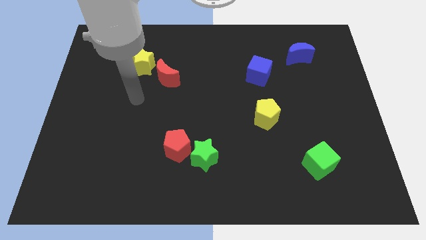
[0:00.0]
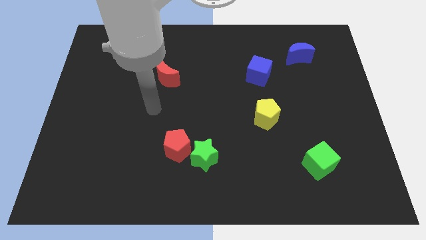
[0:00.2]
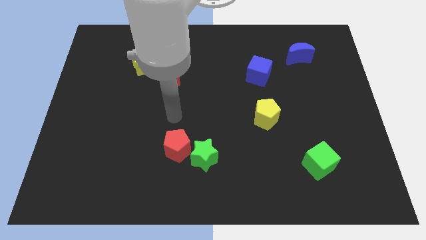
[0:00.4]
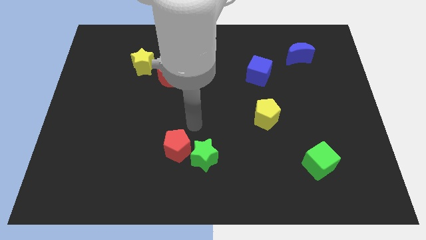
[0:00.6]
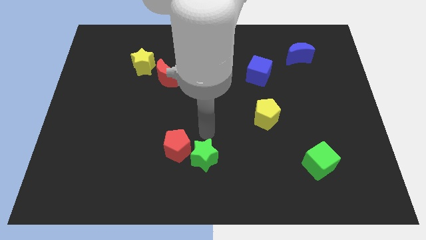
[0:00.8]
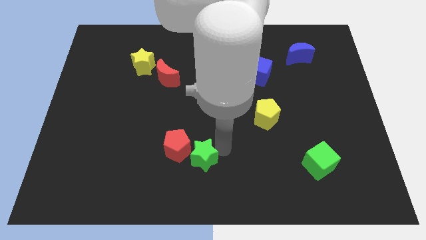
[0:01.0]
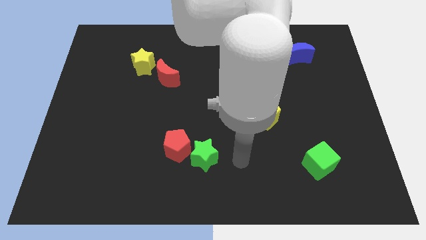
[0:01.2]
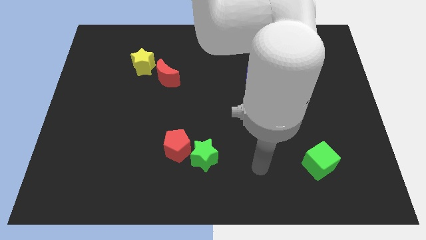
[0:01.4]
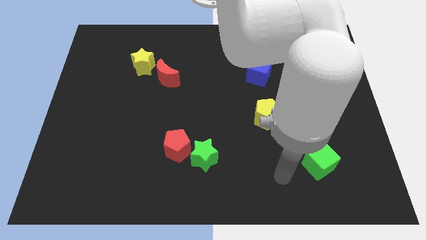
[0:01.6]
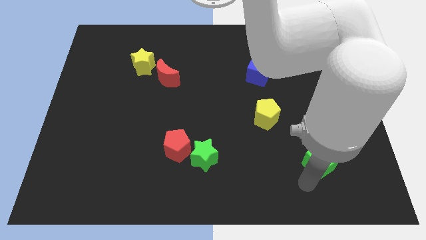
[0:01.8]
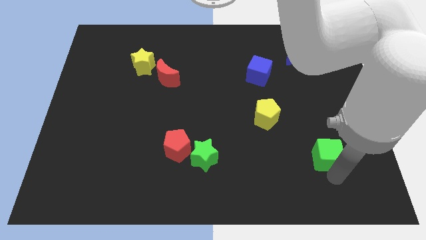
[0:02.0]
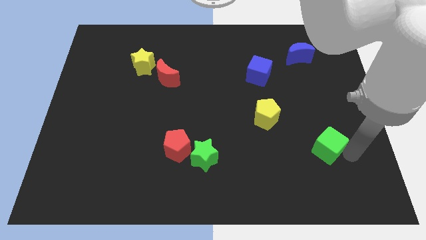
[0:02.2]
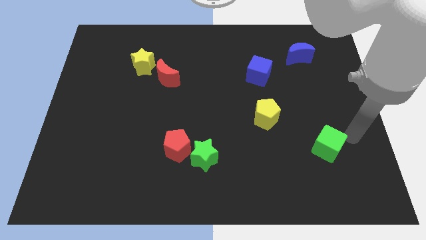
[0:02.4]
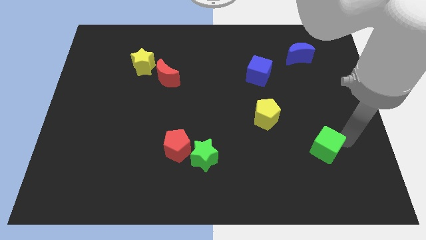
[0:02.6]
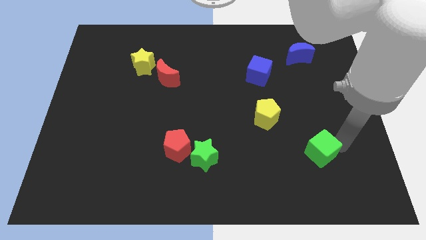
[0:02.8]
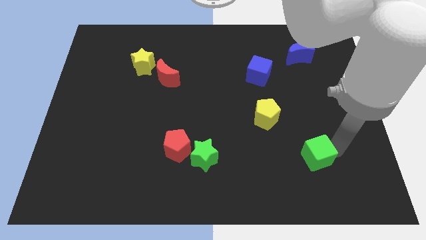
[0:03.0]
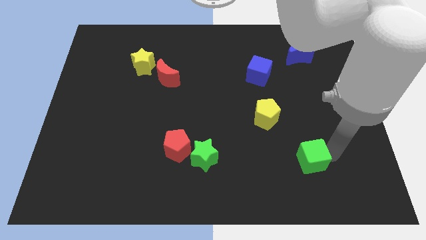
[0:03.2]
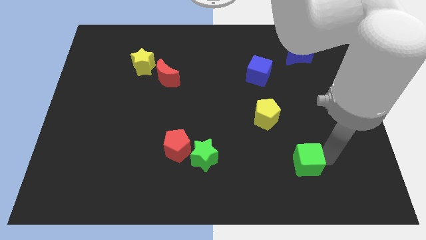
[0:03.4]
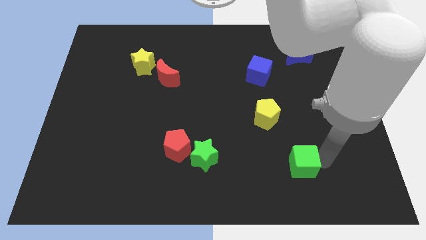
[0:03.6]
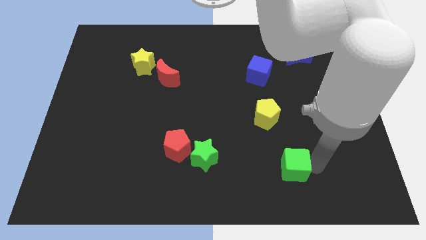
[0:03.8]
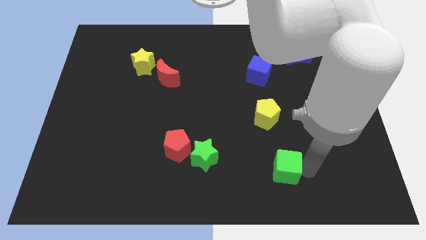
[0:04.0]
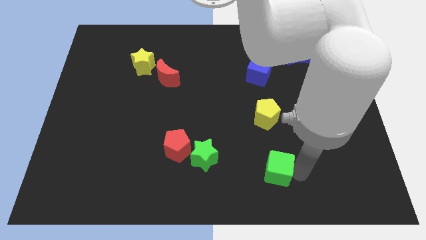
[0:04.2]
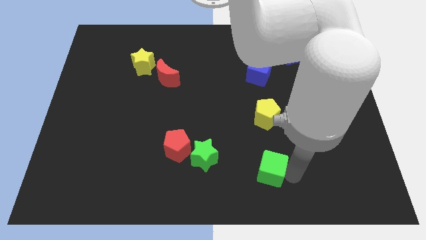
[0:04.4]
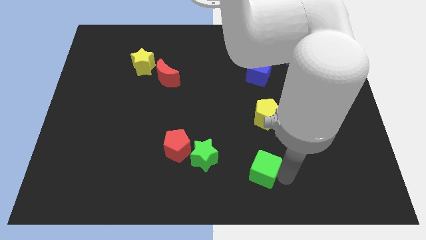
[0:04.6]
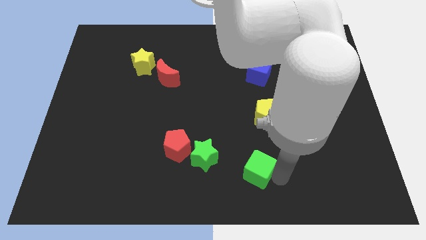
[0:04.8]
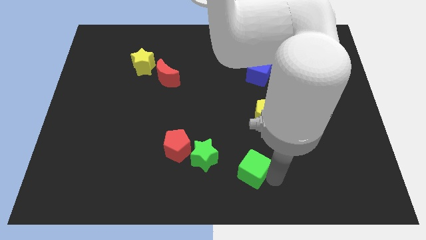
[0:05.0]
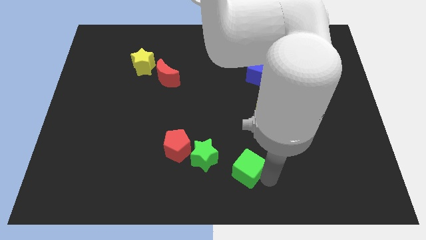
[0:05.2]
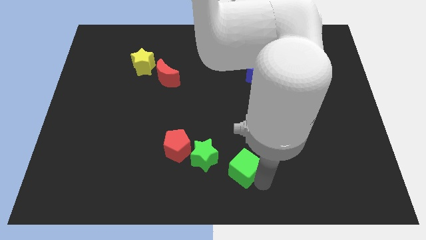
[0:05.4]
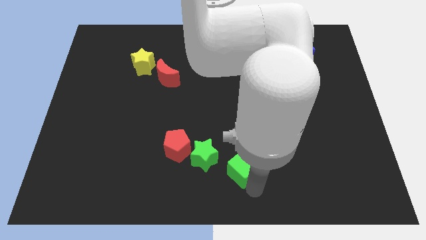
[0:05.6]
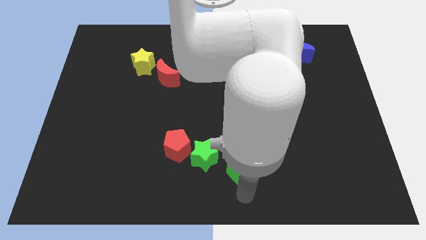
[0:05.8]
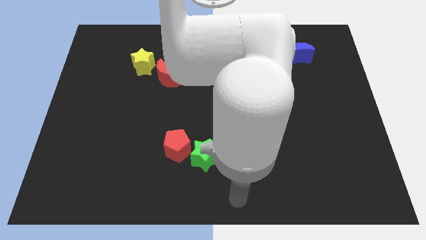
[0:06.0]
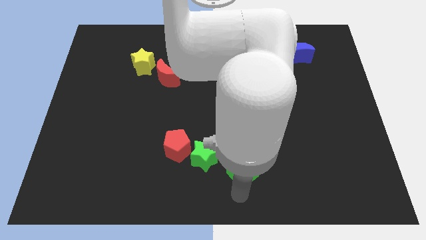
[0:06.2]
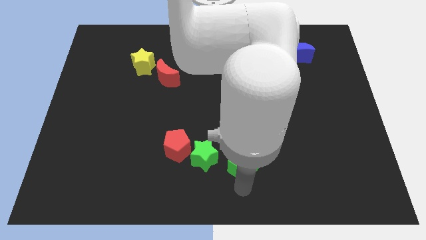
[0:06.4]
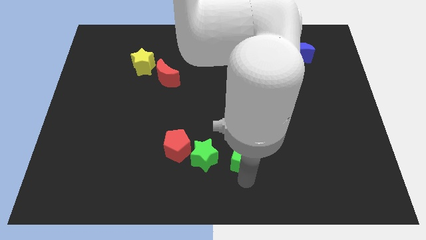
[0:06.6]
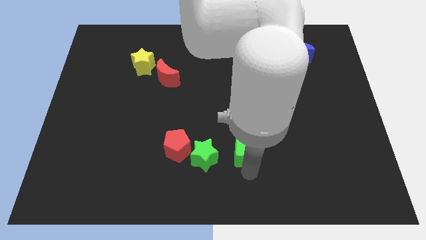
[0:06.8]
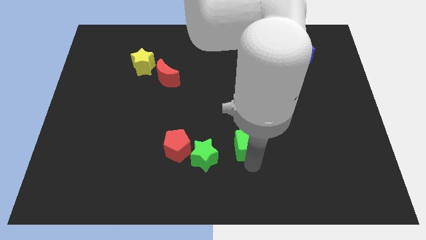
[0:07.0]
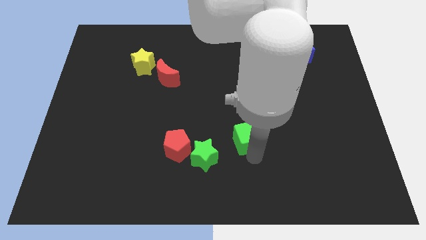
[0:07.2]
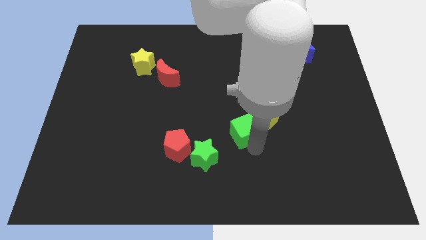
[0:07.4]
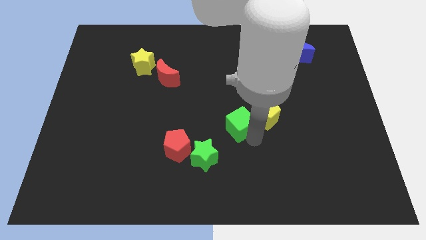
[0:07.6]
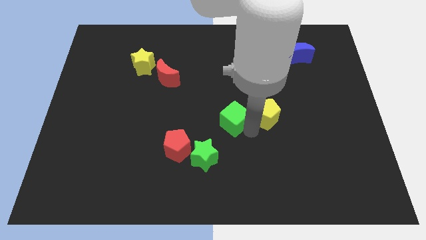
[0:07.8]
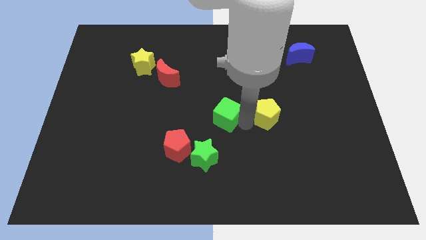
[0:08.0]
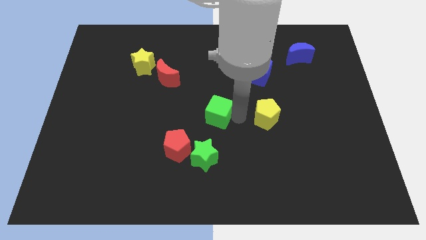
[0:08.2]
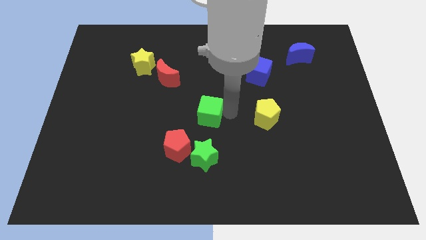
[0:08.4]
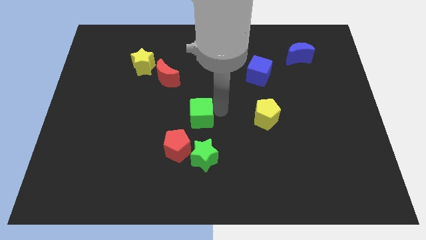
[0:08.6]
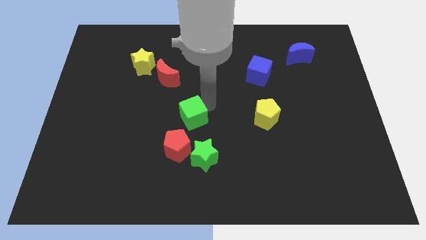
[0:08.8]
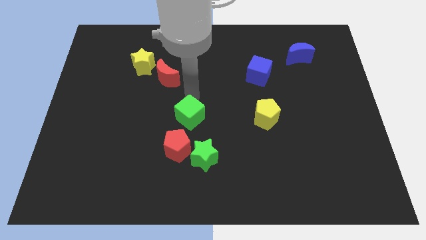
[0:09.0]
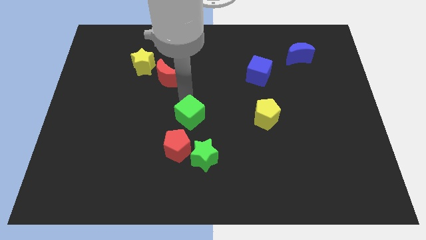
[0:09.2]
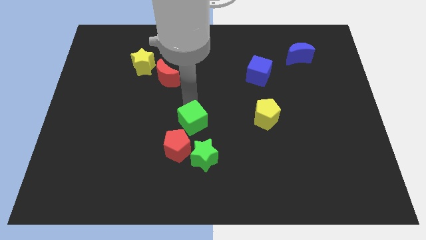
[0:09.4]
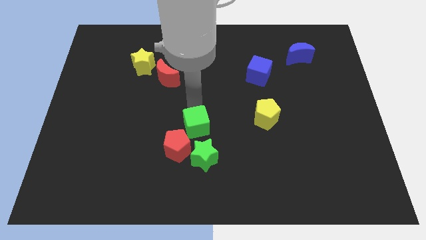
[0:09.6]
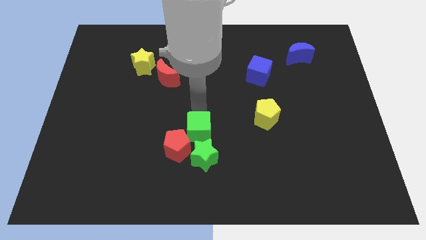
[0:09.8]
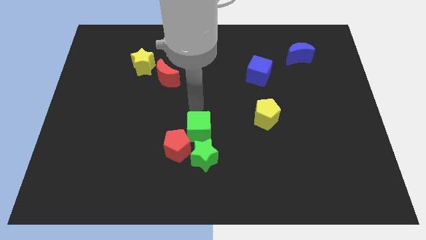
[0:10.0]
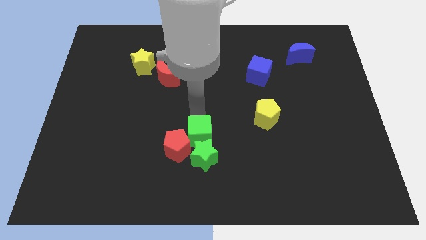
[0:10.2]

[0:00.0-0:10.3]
move the green cube next to the green star

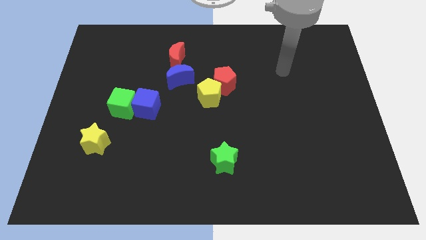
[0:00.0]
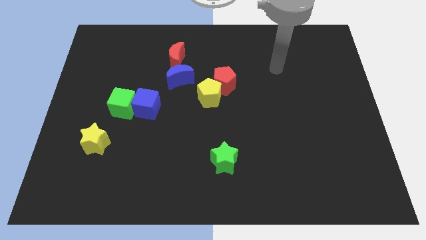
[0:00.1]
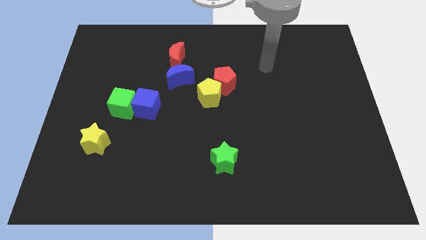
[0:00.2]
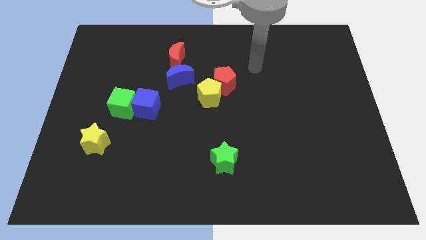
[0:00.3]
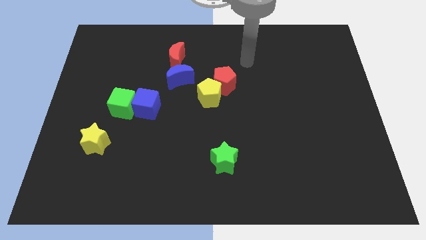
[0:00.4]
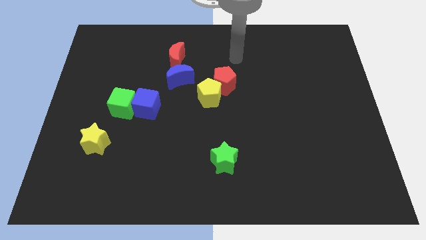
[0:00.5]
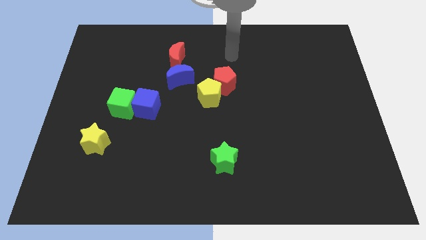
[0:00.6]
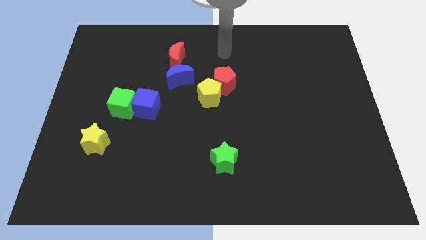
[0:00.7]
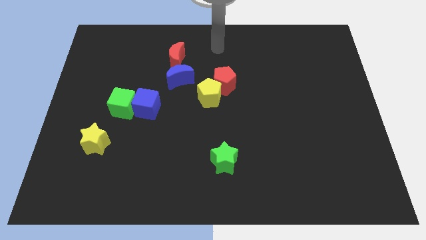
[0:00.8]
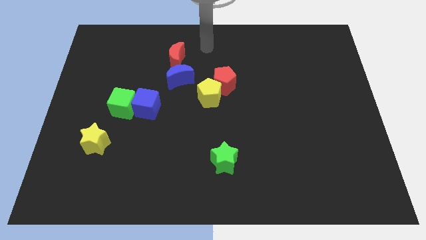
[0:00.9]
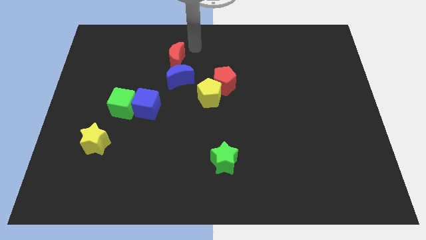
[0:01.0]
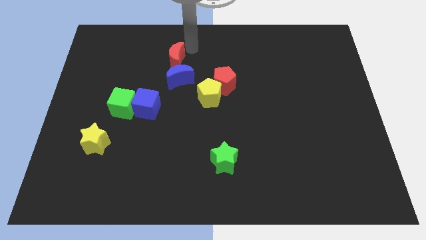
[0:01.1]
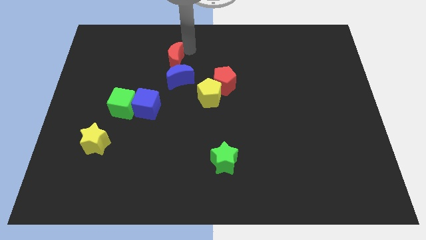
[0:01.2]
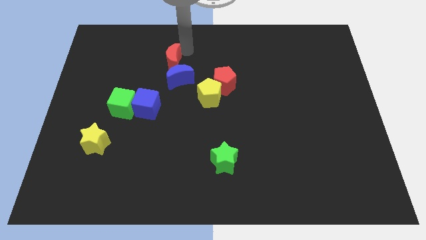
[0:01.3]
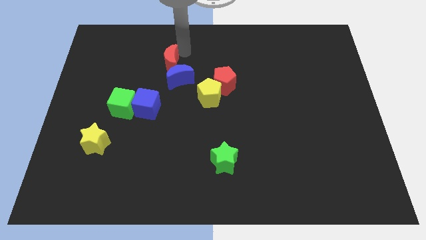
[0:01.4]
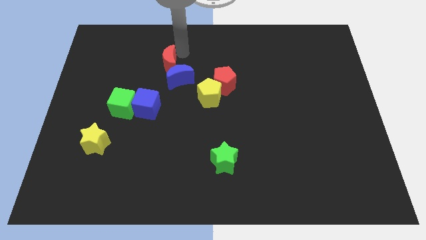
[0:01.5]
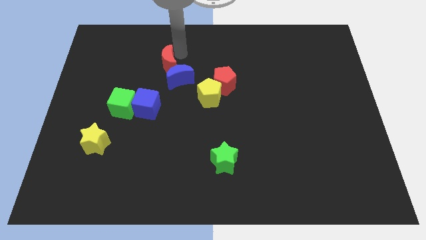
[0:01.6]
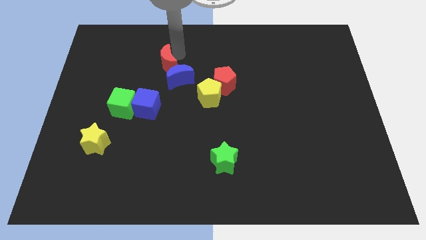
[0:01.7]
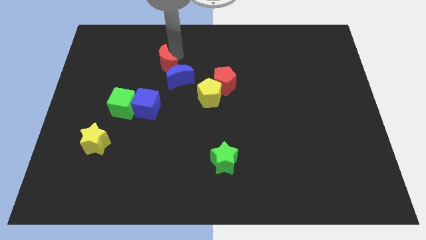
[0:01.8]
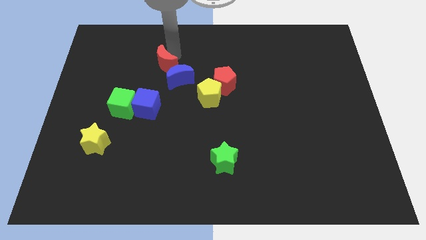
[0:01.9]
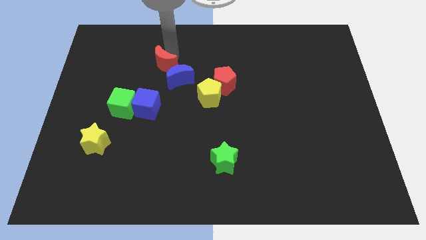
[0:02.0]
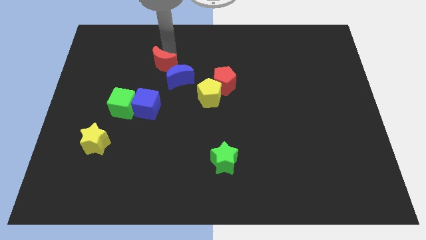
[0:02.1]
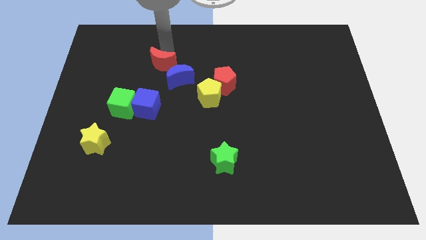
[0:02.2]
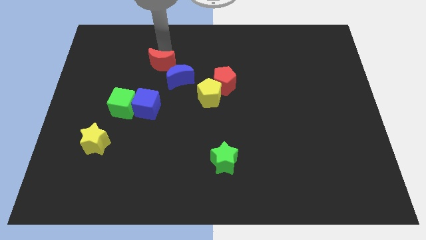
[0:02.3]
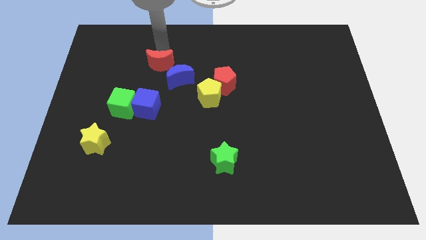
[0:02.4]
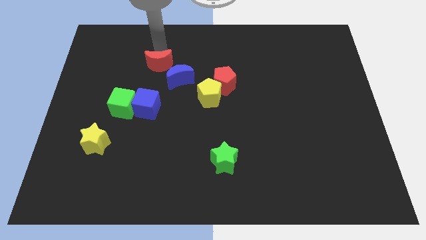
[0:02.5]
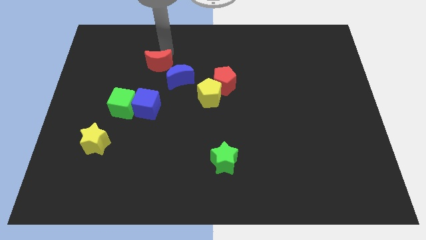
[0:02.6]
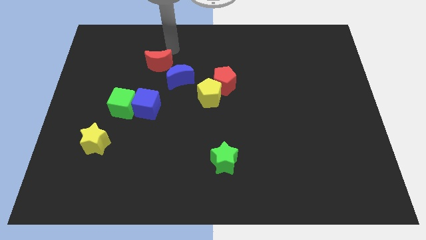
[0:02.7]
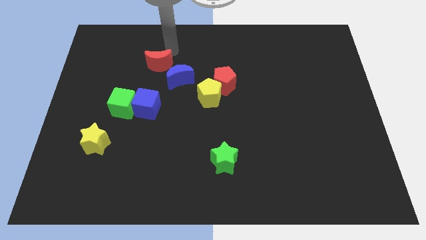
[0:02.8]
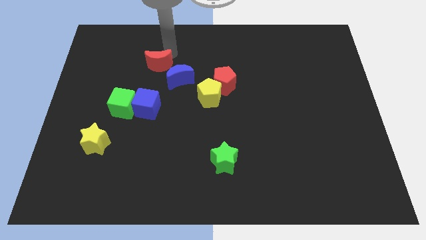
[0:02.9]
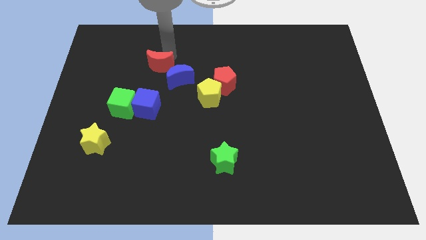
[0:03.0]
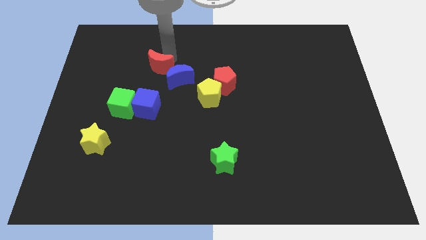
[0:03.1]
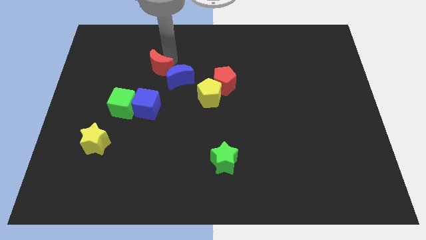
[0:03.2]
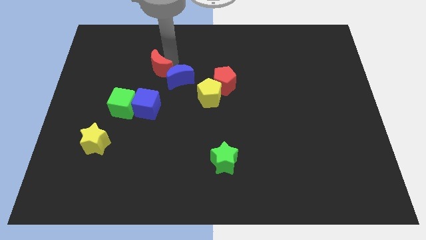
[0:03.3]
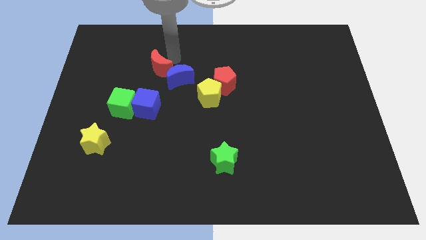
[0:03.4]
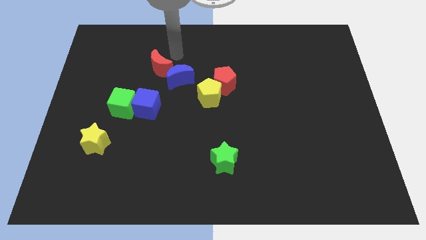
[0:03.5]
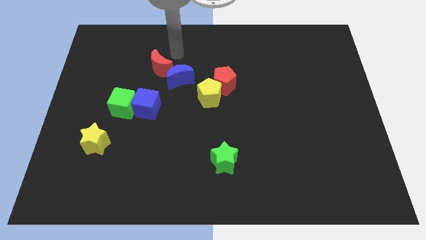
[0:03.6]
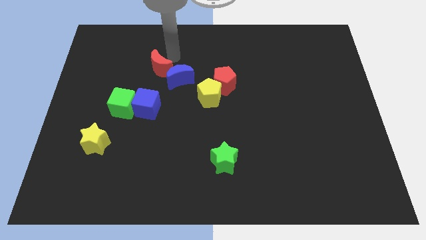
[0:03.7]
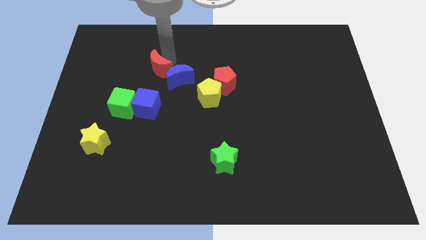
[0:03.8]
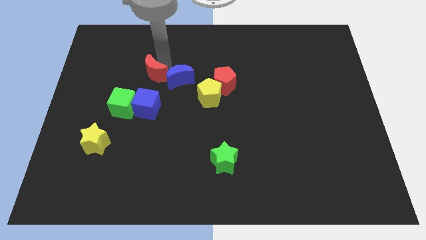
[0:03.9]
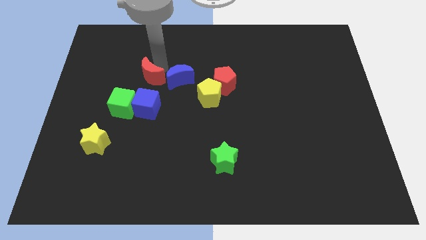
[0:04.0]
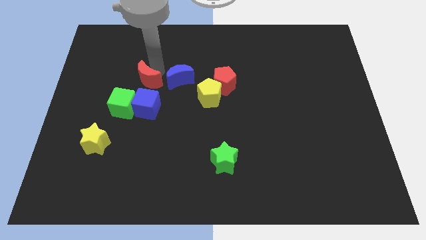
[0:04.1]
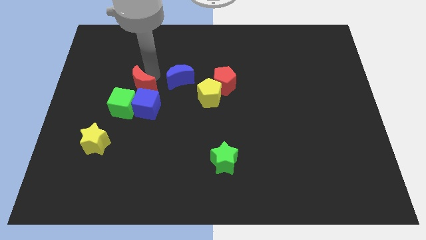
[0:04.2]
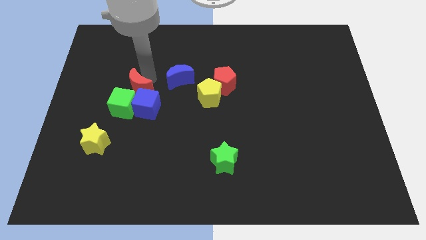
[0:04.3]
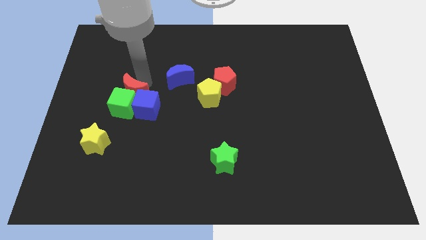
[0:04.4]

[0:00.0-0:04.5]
put the red moon to the green cube
